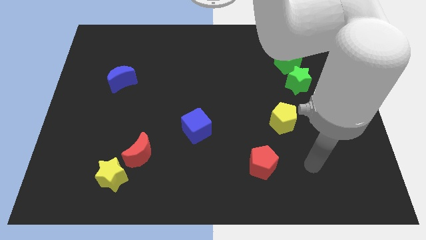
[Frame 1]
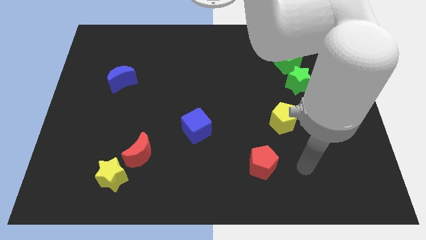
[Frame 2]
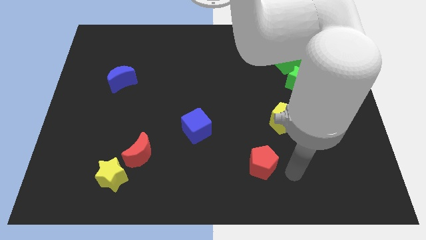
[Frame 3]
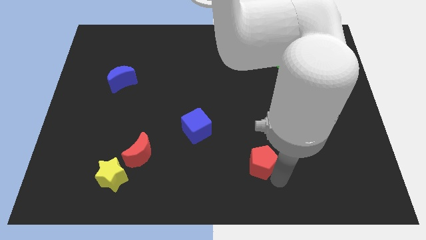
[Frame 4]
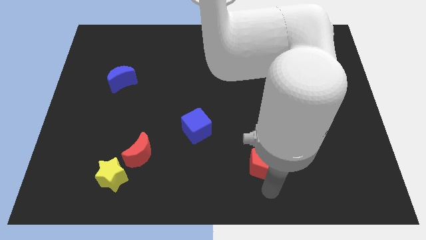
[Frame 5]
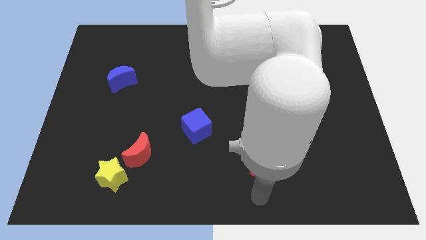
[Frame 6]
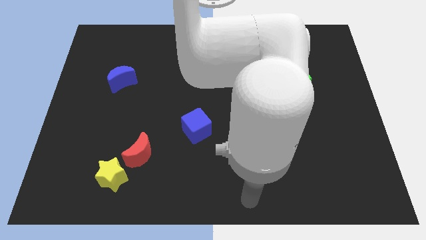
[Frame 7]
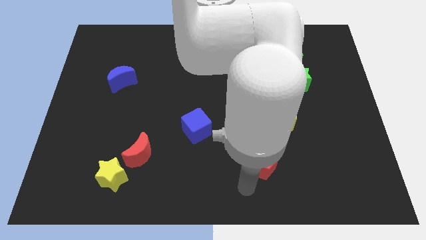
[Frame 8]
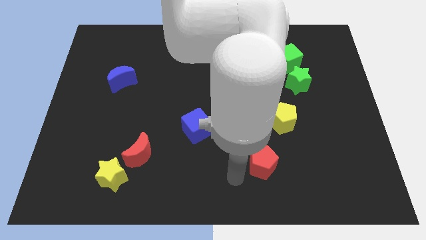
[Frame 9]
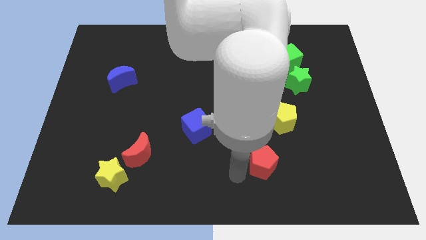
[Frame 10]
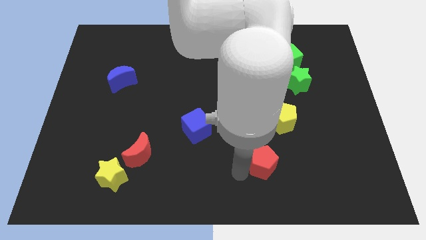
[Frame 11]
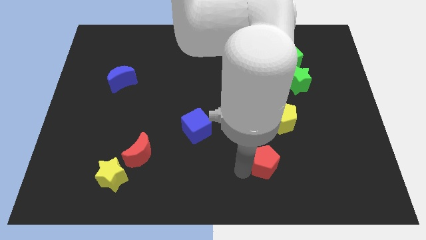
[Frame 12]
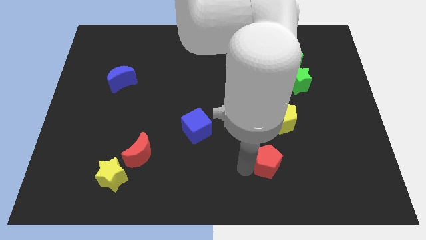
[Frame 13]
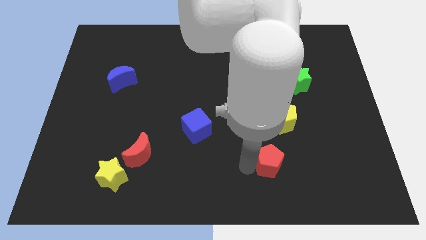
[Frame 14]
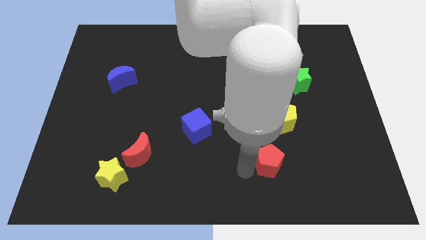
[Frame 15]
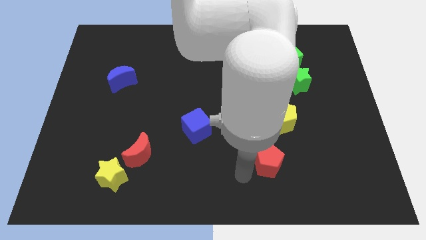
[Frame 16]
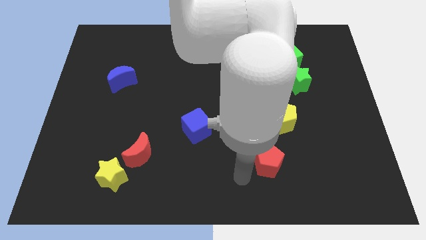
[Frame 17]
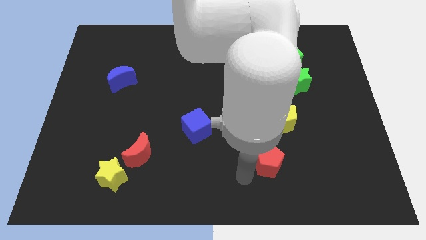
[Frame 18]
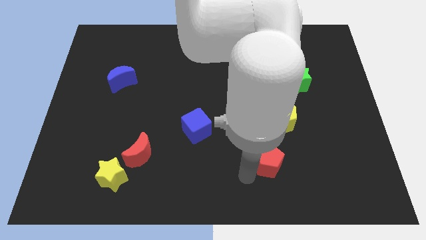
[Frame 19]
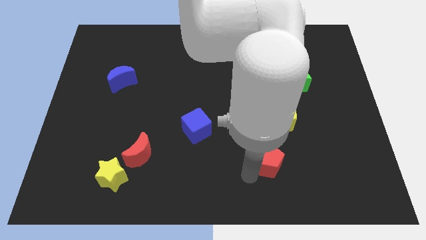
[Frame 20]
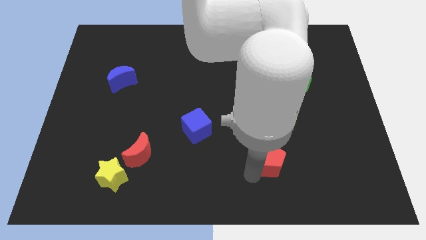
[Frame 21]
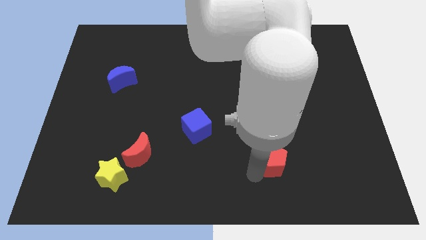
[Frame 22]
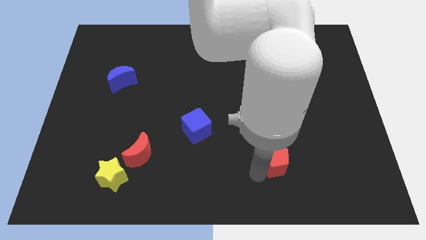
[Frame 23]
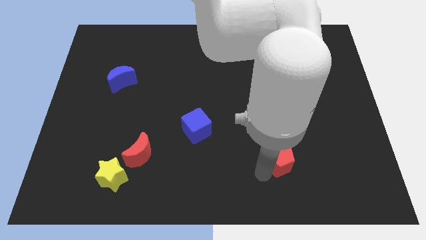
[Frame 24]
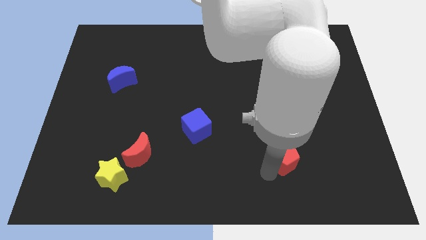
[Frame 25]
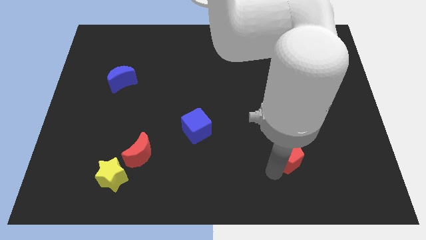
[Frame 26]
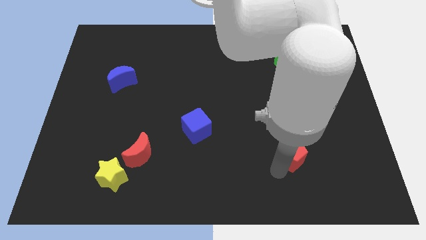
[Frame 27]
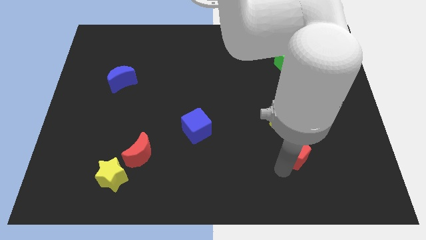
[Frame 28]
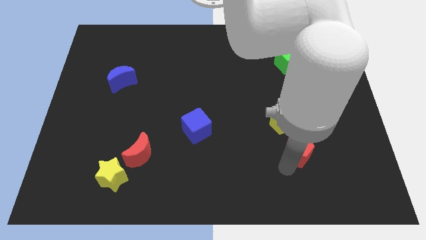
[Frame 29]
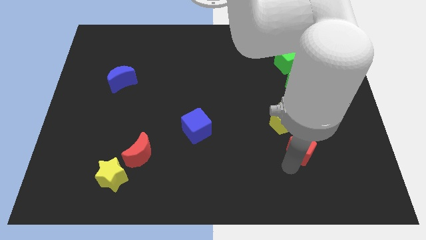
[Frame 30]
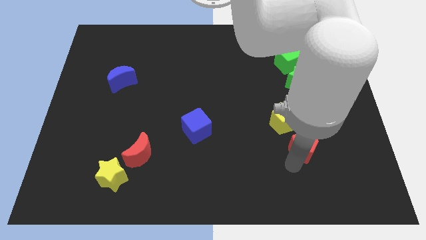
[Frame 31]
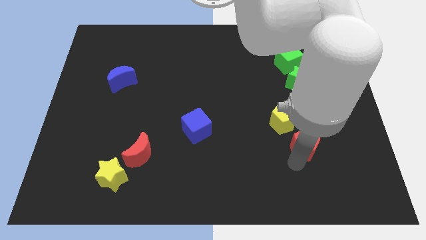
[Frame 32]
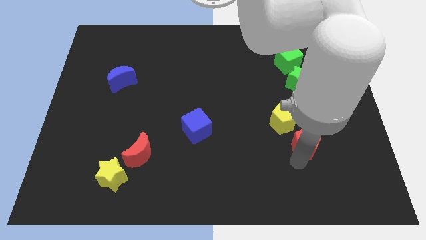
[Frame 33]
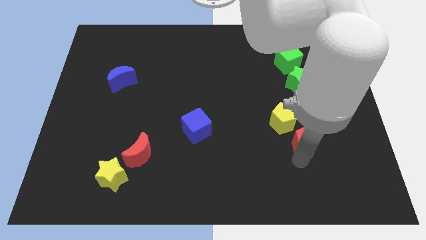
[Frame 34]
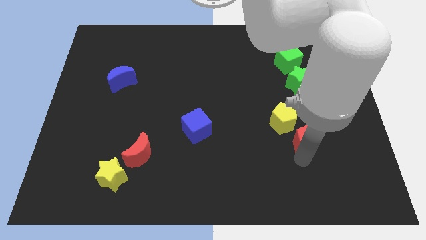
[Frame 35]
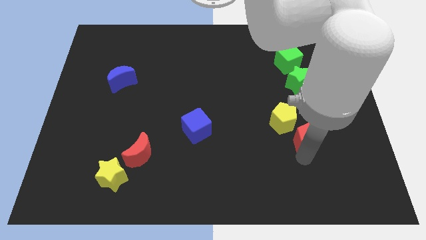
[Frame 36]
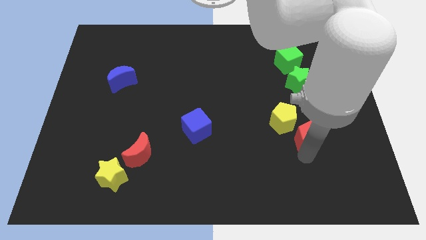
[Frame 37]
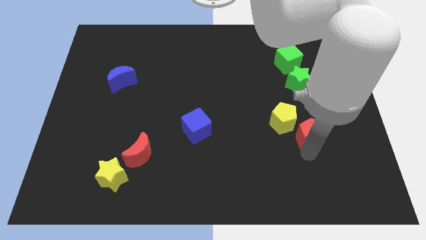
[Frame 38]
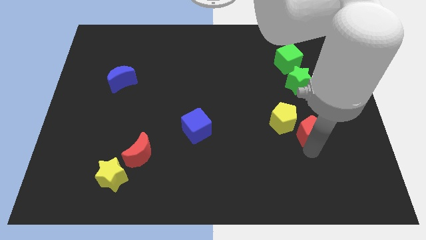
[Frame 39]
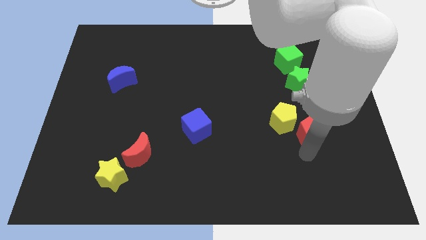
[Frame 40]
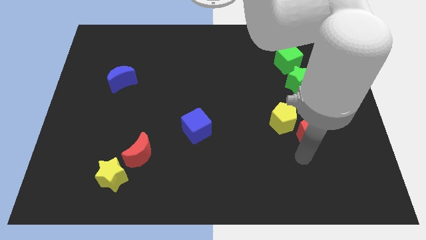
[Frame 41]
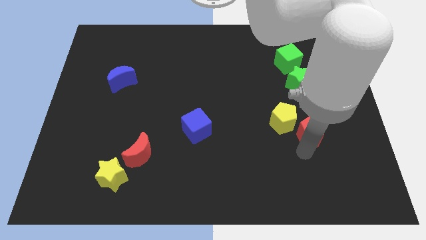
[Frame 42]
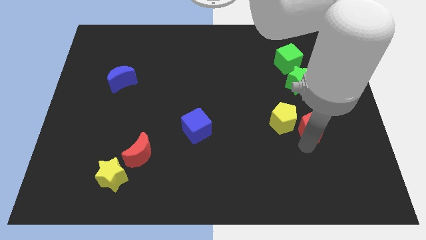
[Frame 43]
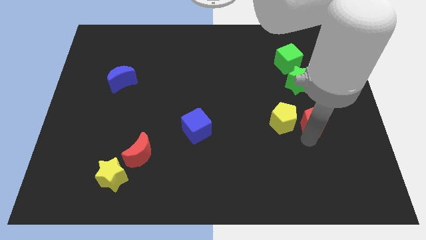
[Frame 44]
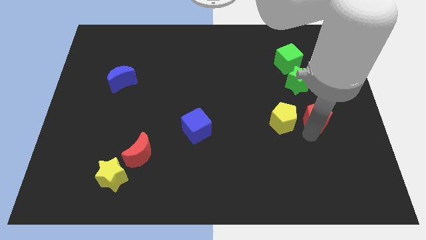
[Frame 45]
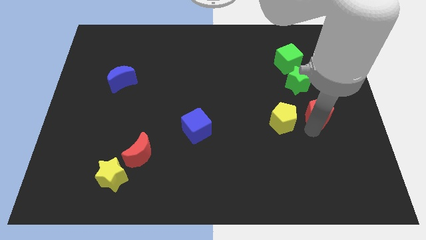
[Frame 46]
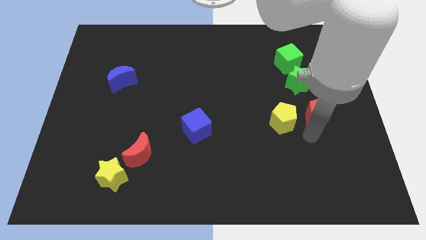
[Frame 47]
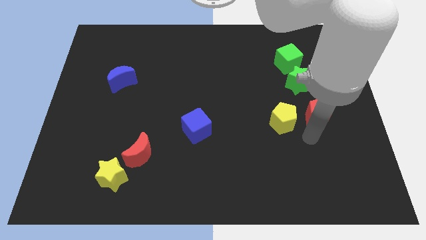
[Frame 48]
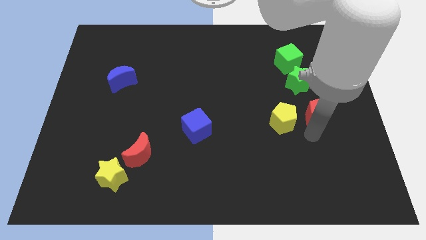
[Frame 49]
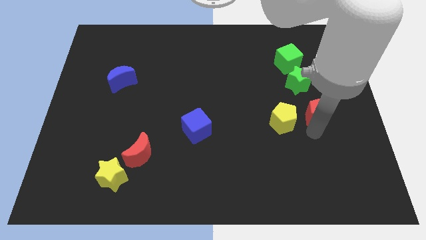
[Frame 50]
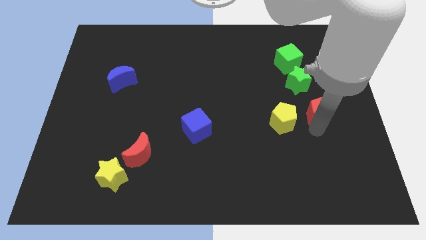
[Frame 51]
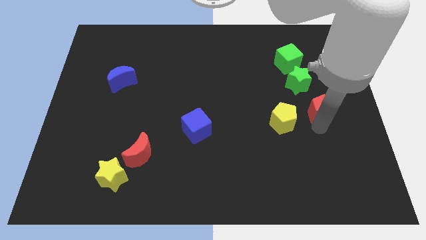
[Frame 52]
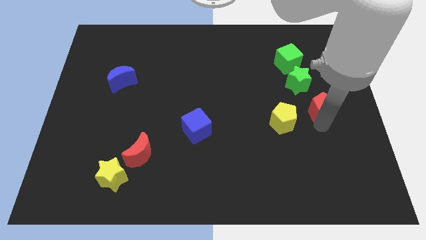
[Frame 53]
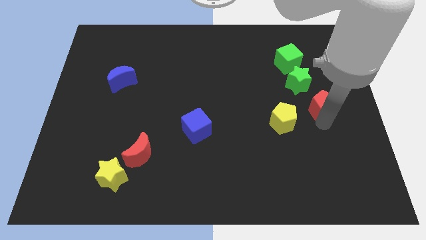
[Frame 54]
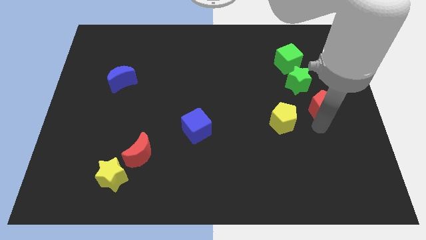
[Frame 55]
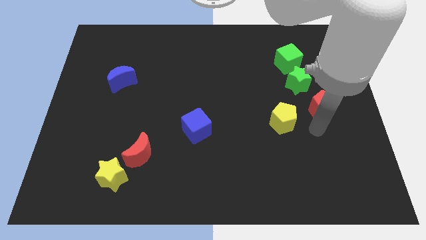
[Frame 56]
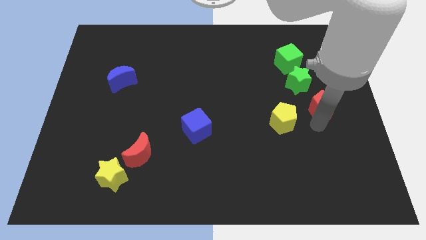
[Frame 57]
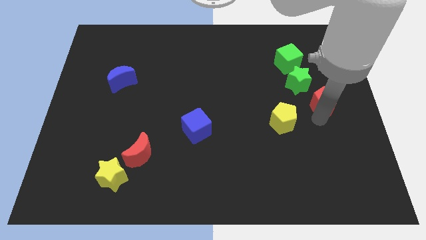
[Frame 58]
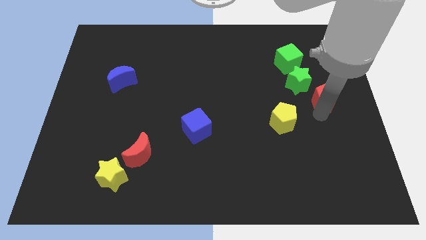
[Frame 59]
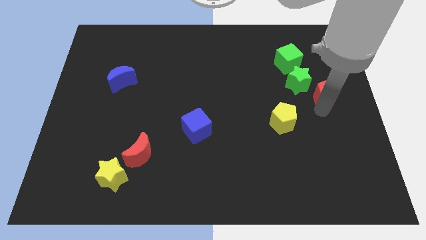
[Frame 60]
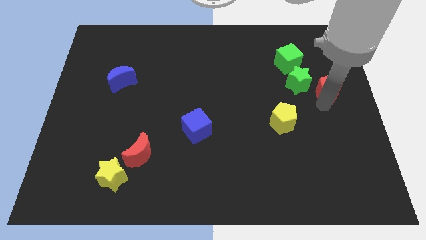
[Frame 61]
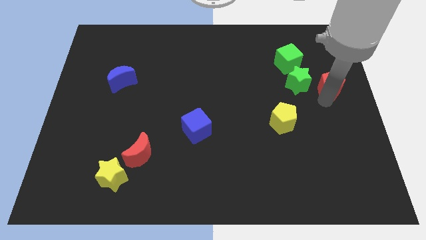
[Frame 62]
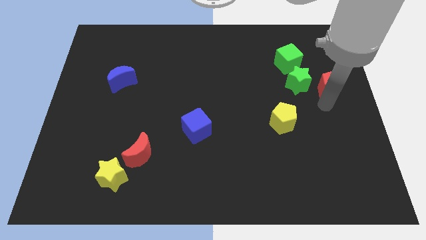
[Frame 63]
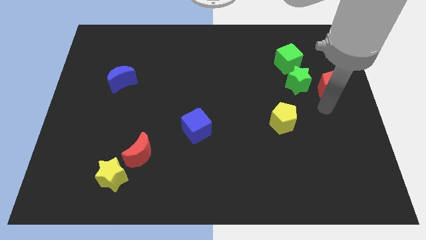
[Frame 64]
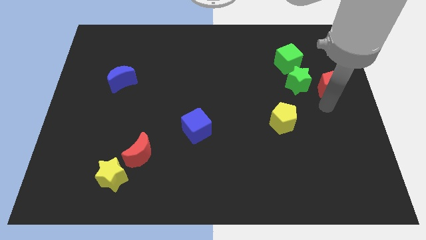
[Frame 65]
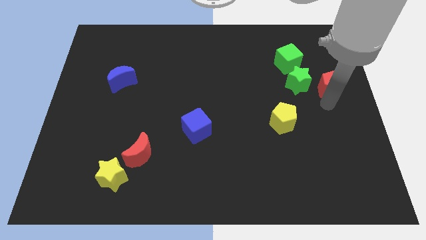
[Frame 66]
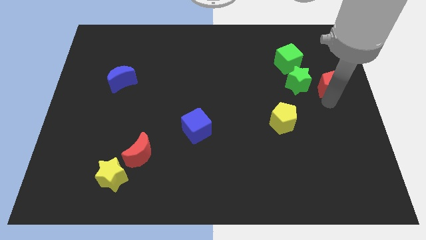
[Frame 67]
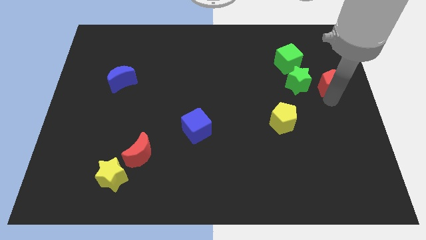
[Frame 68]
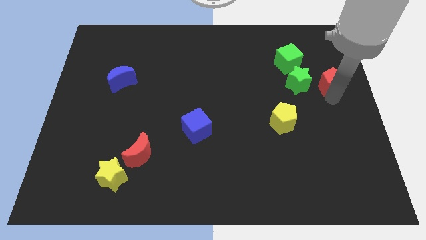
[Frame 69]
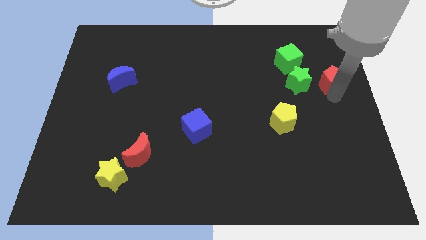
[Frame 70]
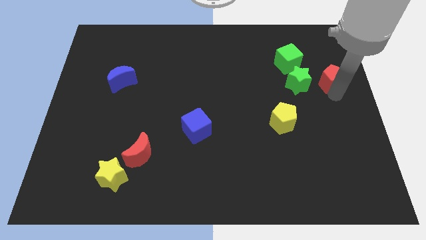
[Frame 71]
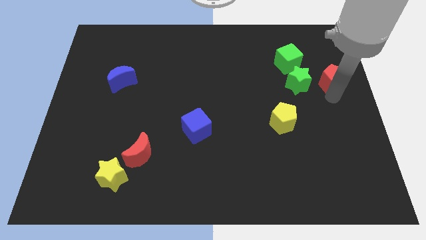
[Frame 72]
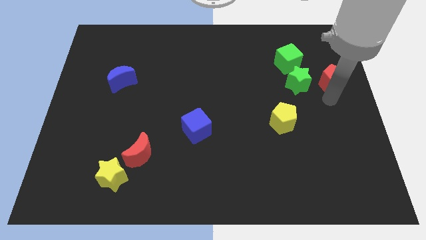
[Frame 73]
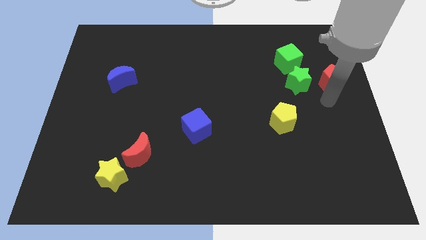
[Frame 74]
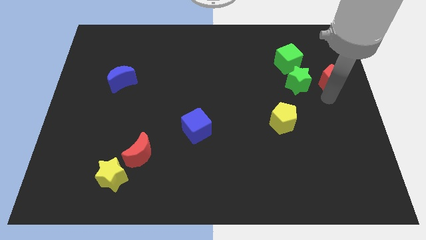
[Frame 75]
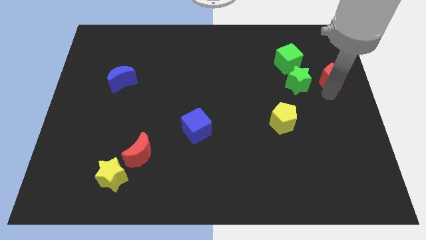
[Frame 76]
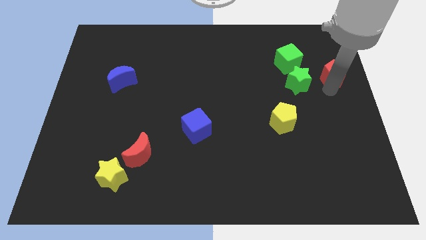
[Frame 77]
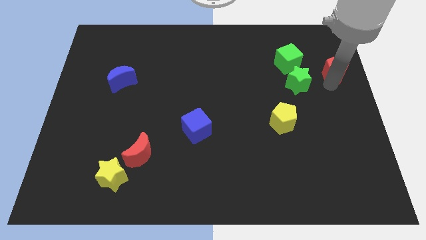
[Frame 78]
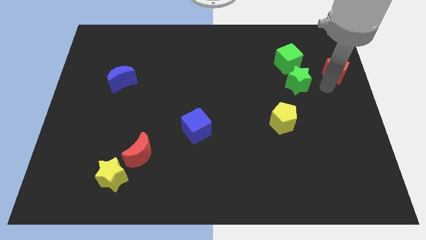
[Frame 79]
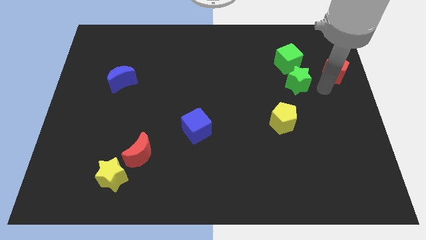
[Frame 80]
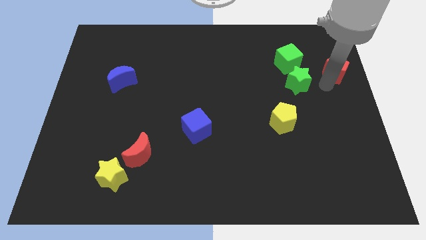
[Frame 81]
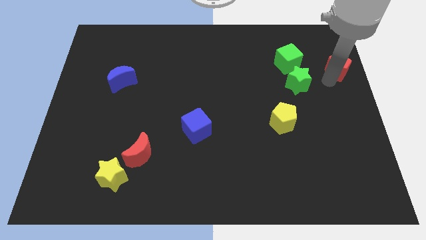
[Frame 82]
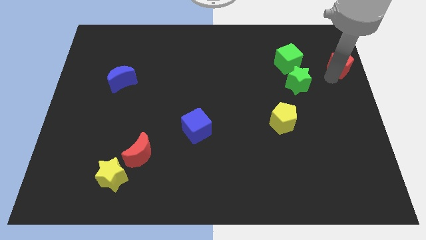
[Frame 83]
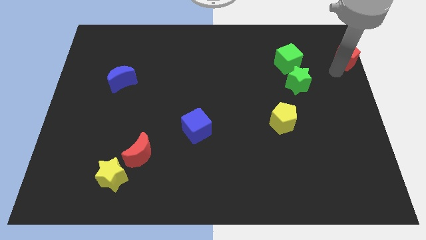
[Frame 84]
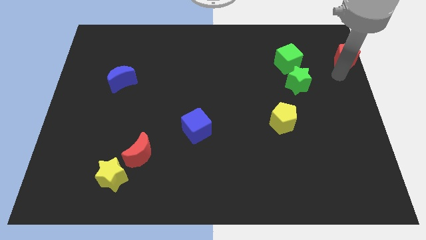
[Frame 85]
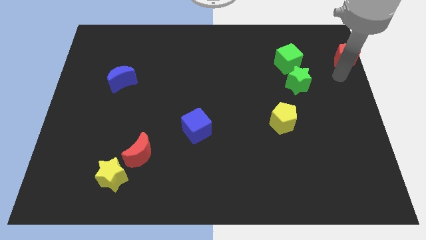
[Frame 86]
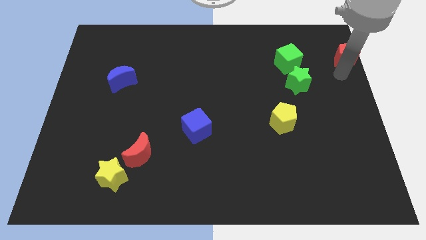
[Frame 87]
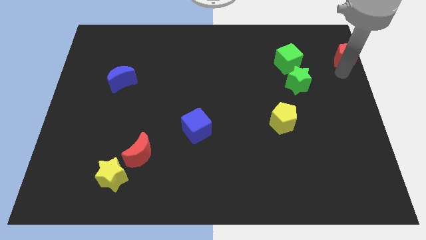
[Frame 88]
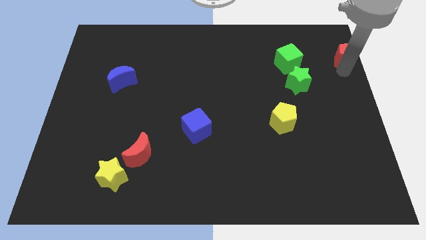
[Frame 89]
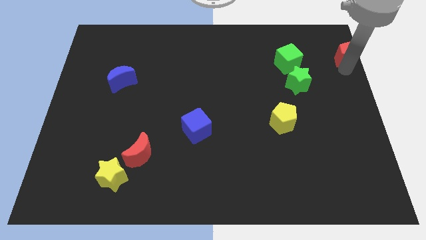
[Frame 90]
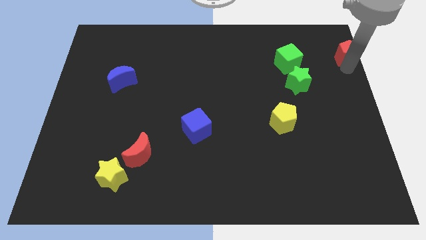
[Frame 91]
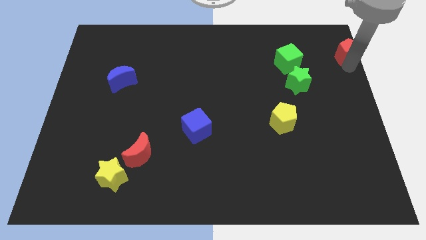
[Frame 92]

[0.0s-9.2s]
slide the red pentagon to the top right corner
